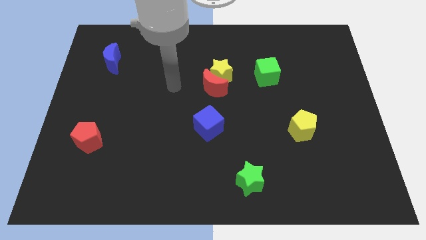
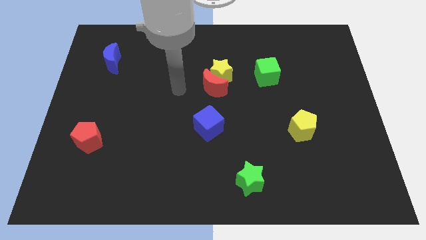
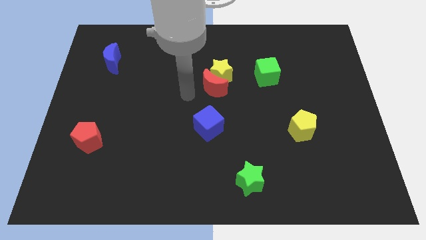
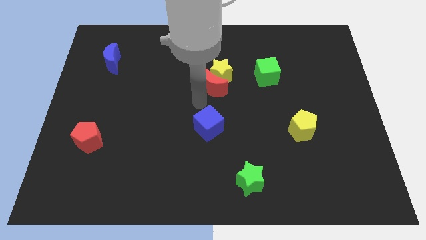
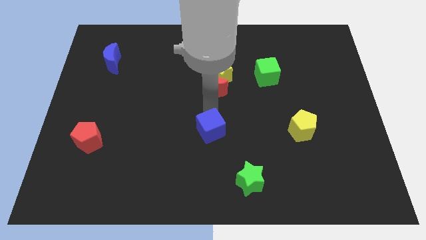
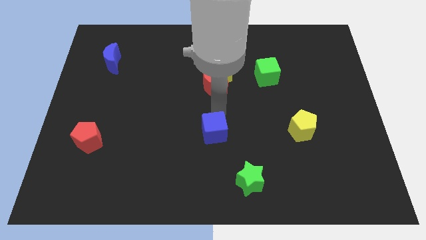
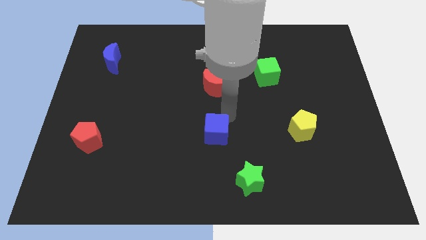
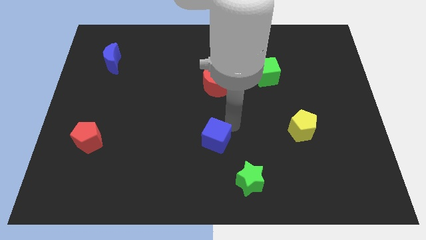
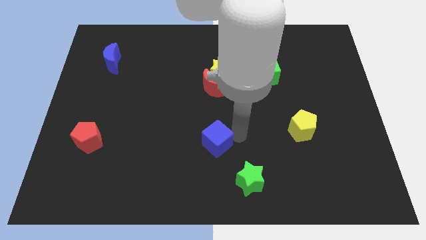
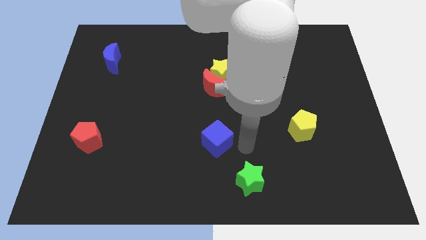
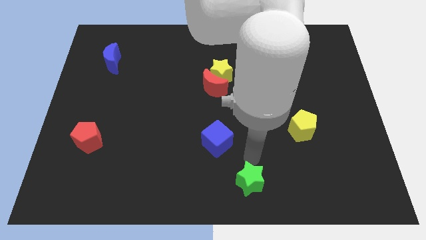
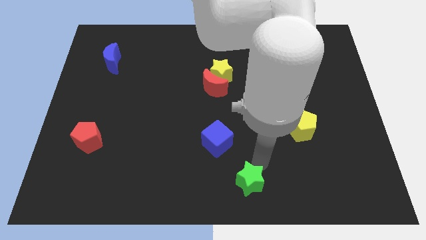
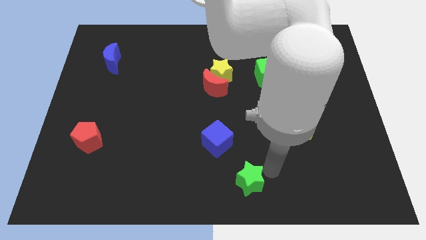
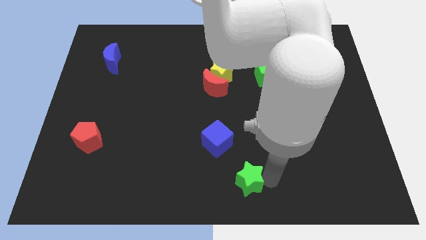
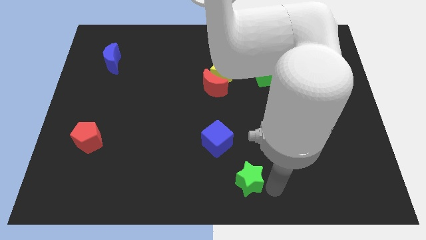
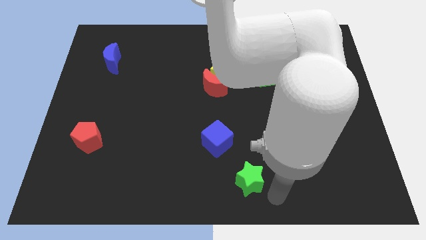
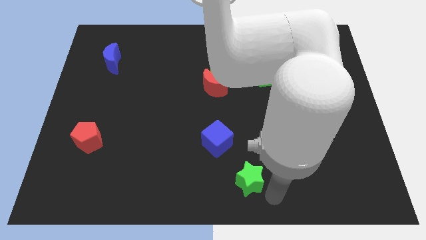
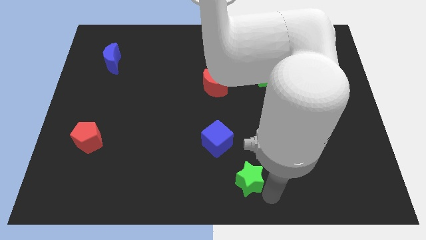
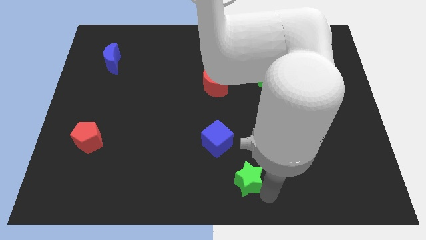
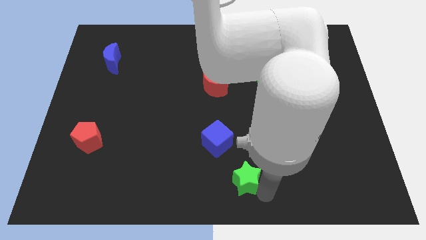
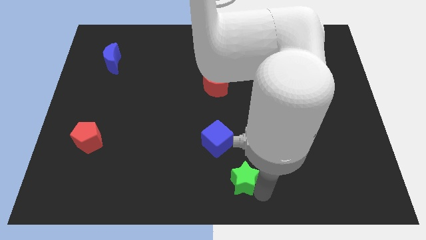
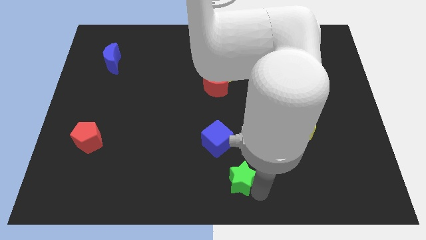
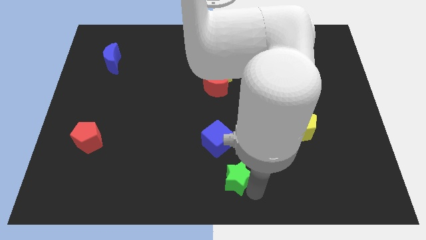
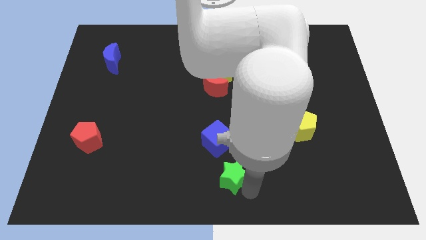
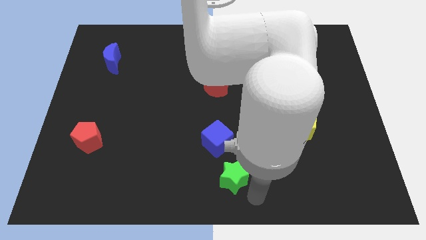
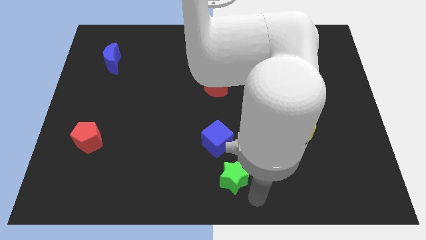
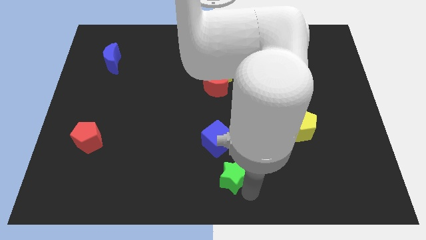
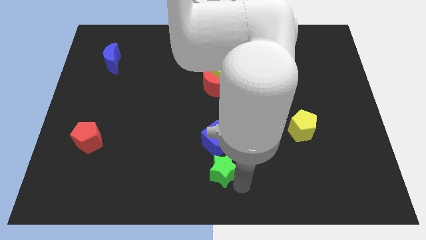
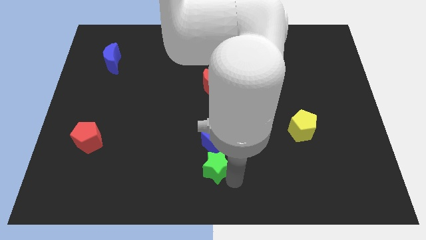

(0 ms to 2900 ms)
slide the green star diagonally upwards and left somewhat

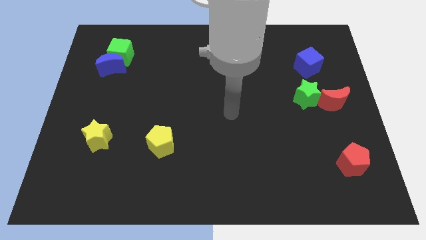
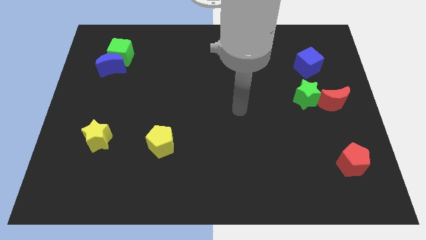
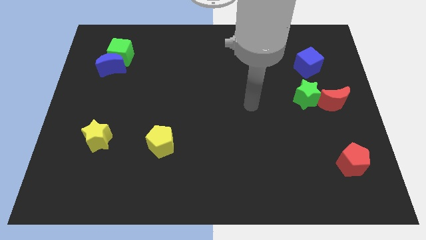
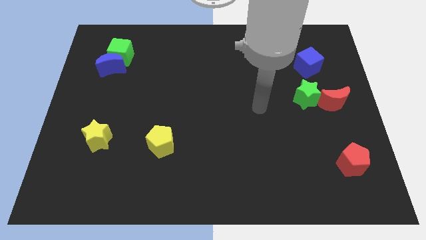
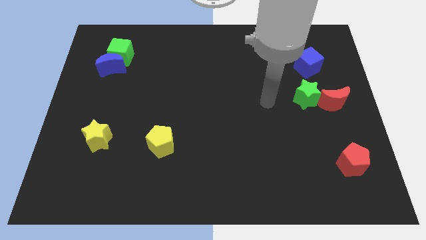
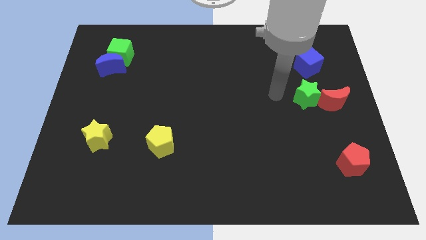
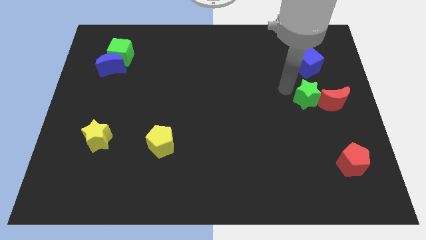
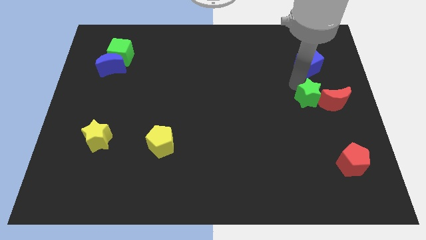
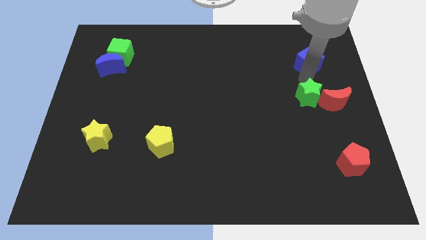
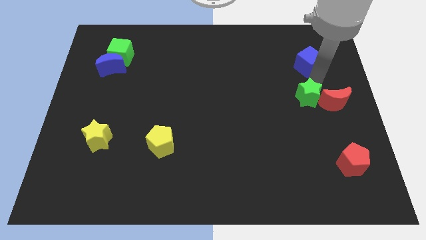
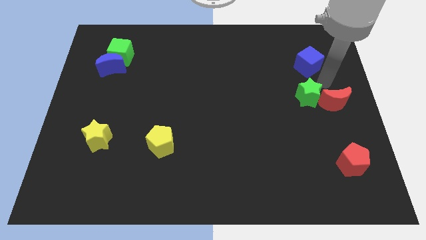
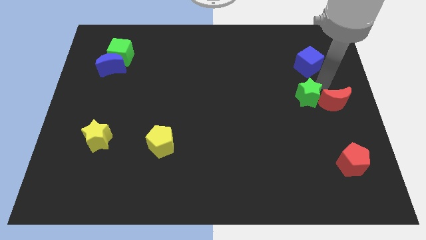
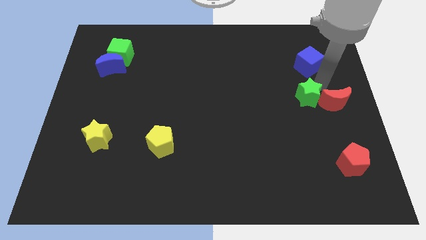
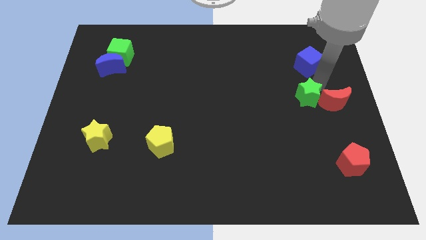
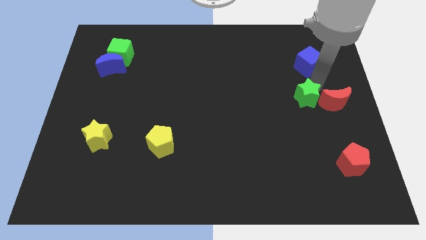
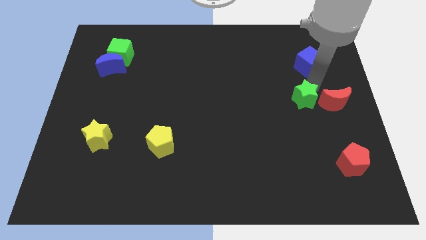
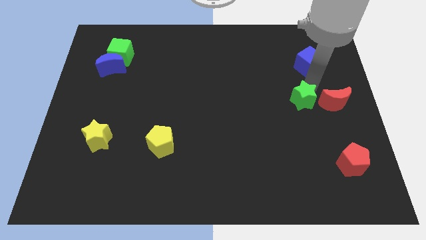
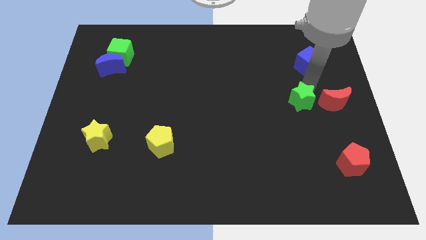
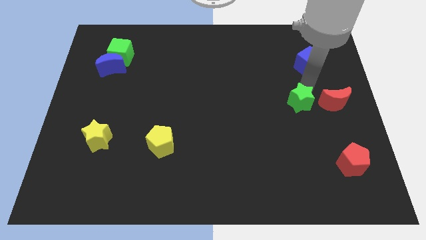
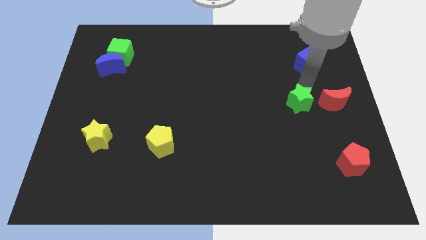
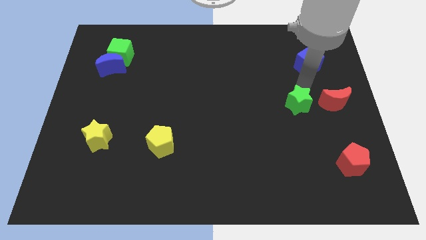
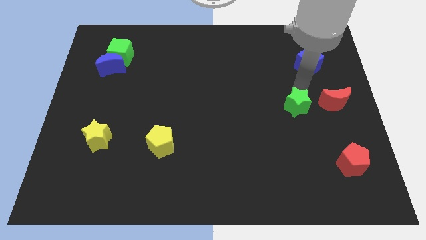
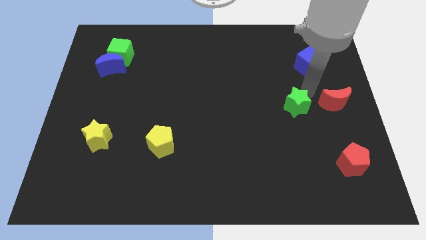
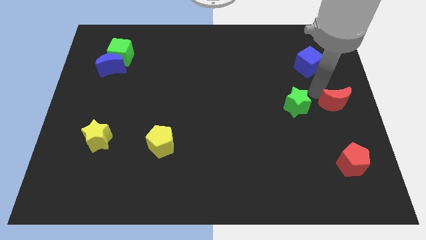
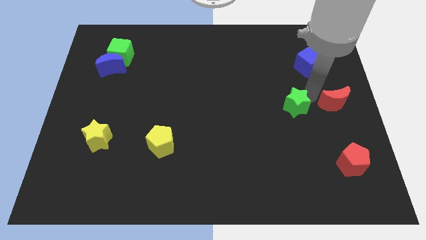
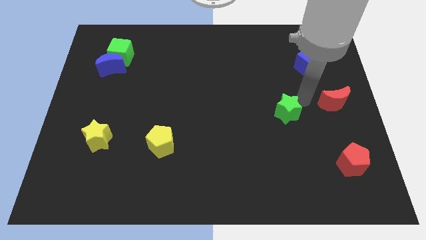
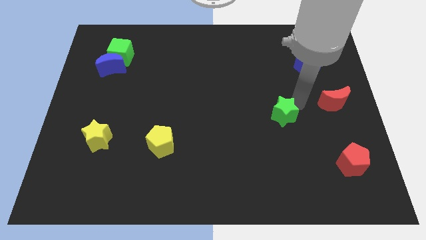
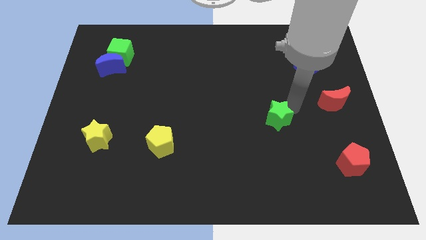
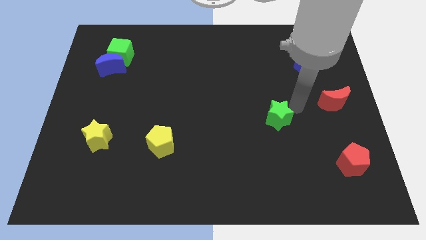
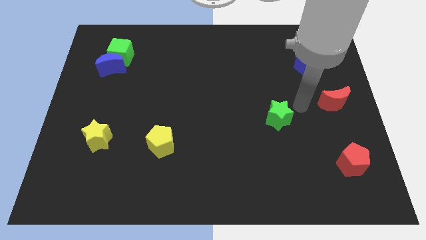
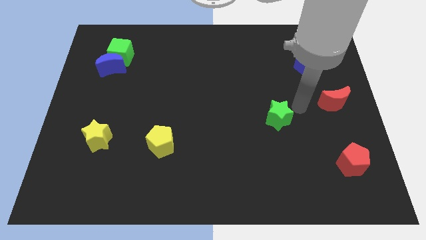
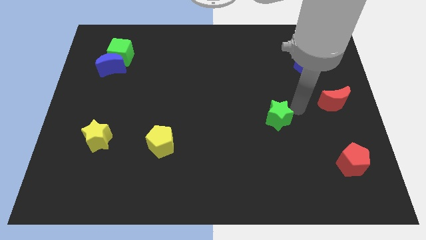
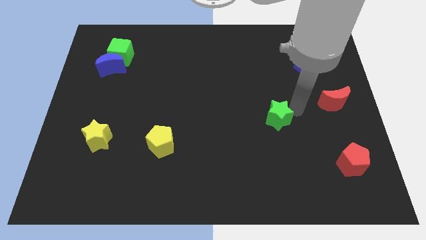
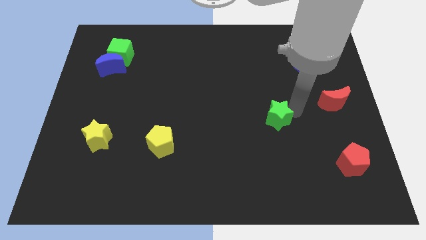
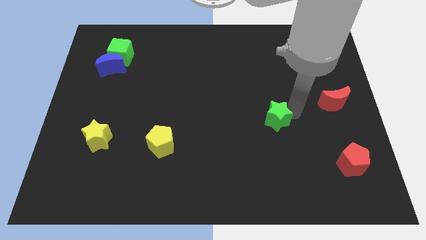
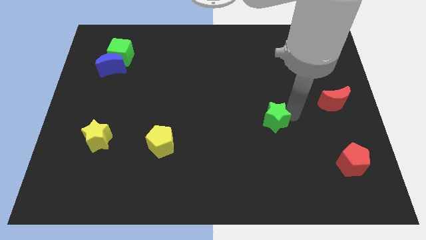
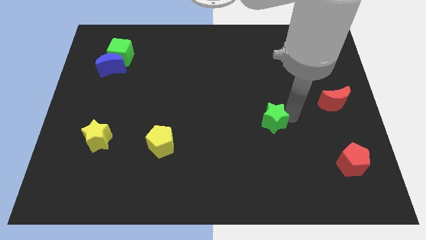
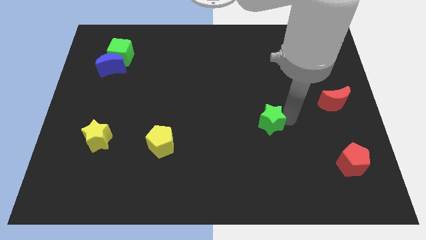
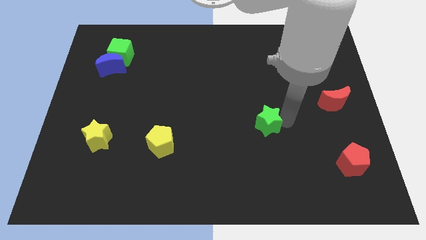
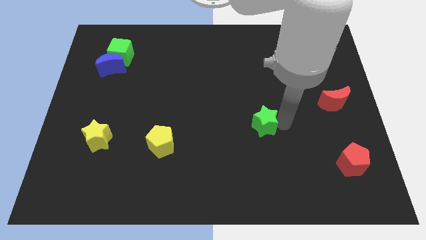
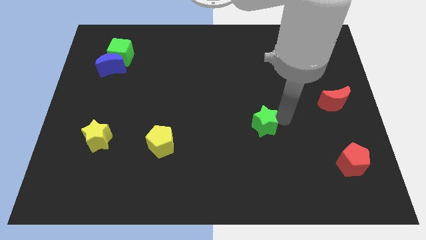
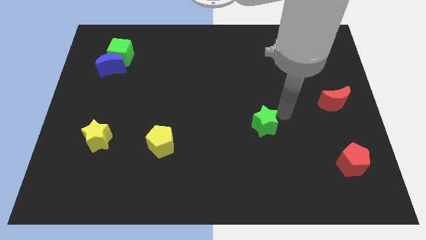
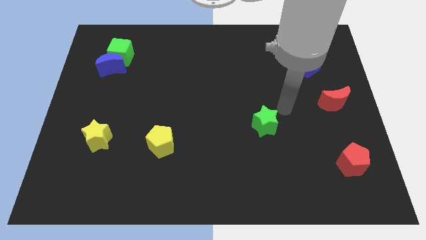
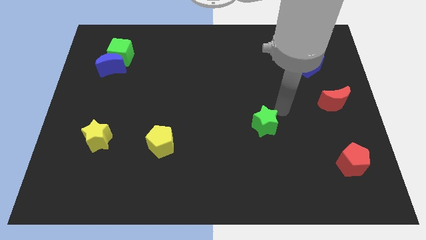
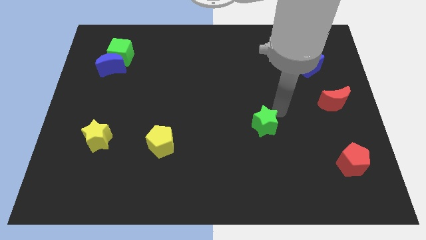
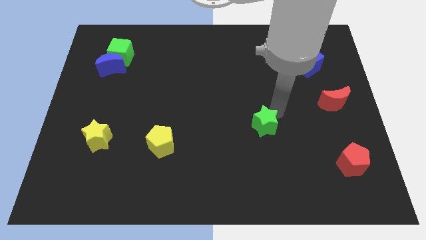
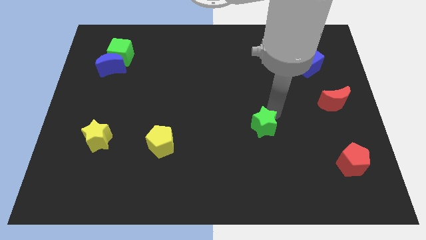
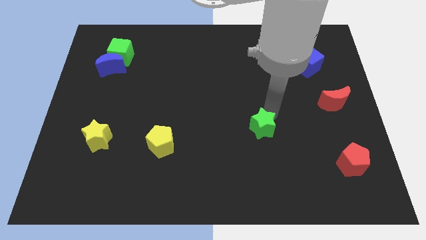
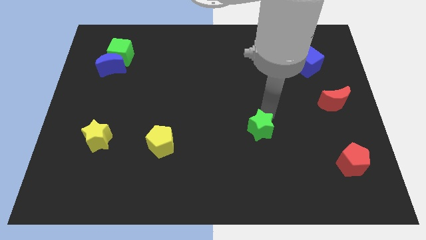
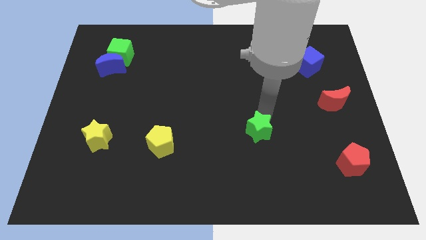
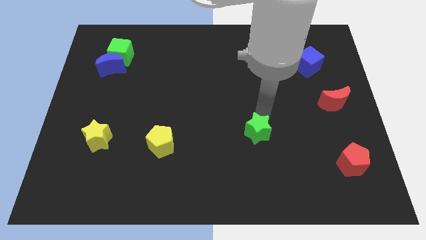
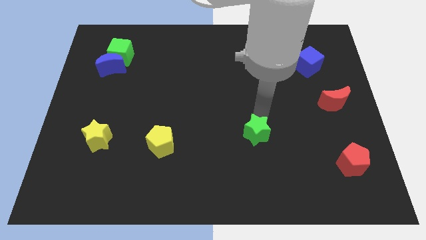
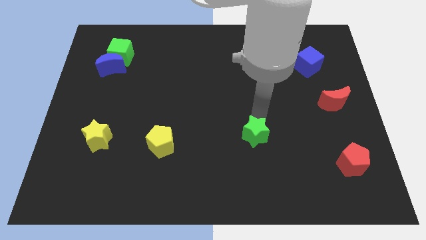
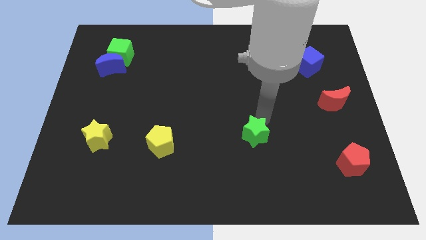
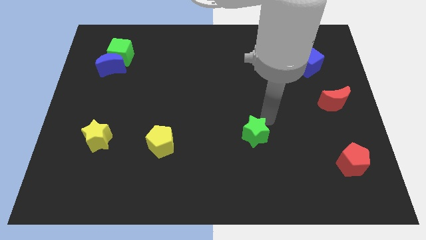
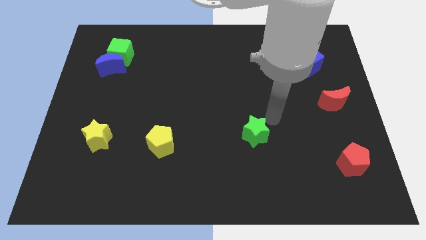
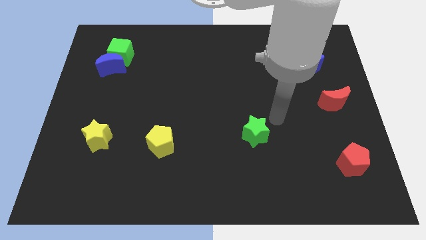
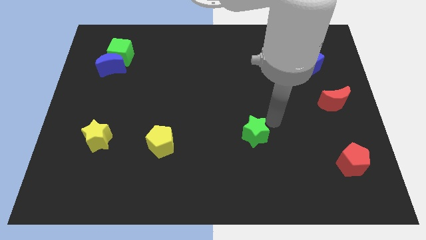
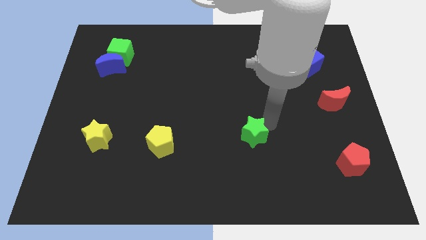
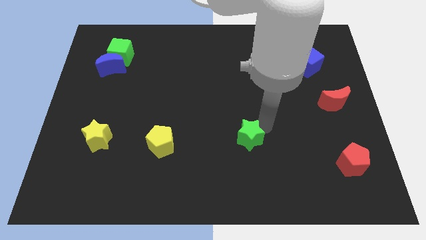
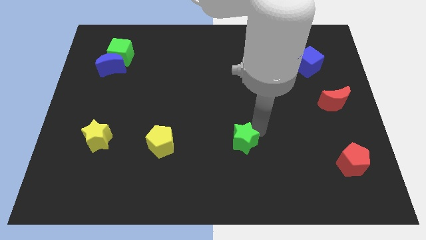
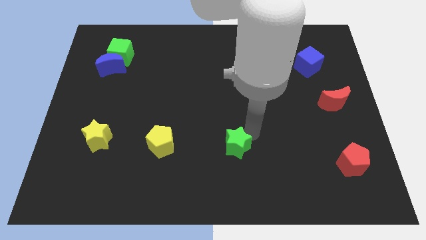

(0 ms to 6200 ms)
slide the green star down and to the left
